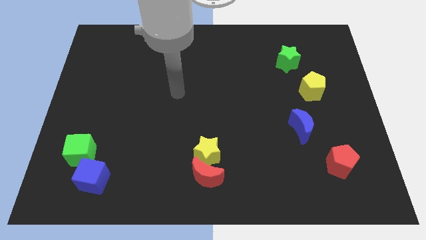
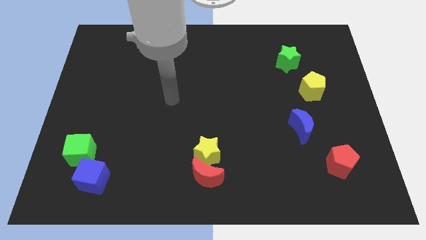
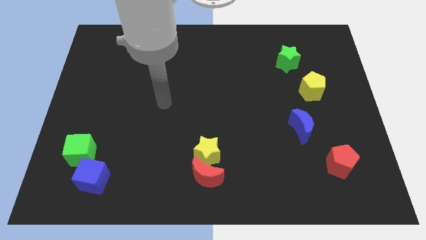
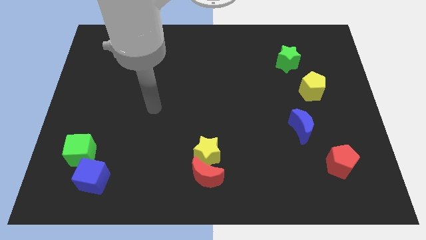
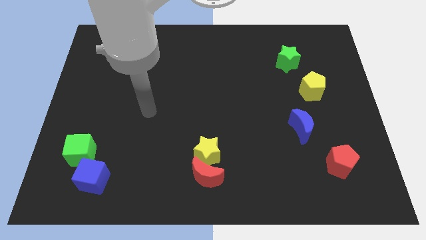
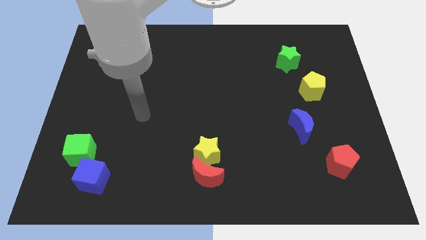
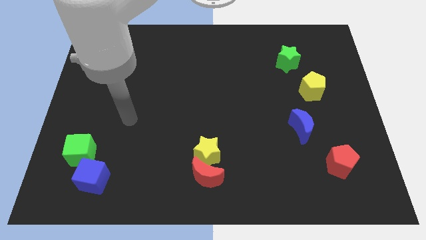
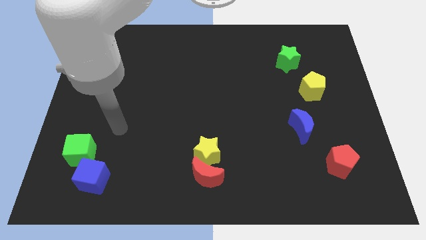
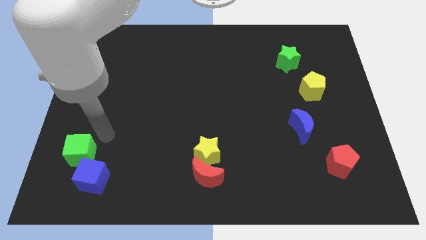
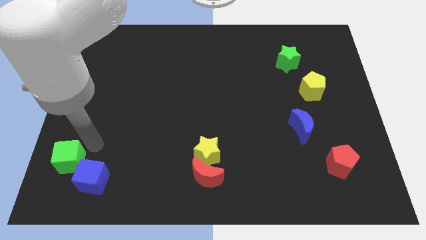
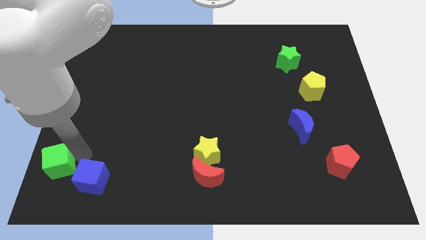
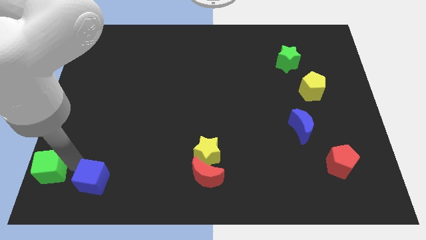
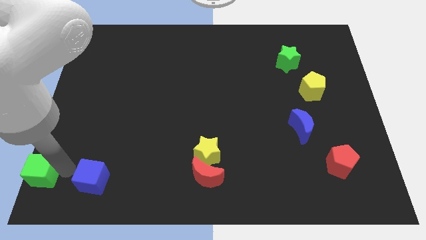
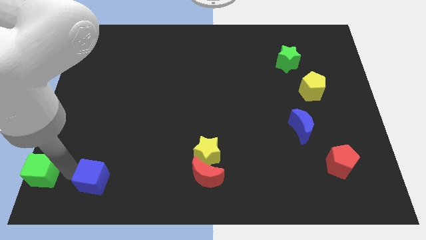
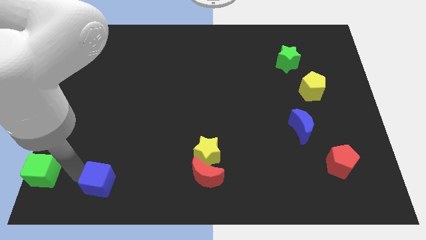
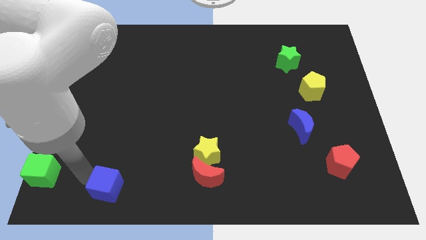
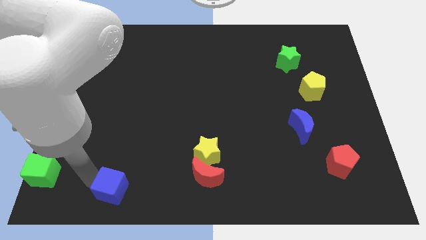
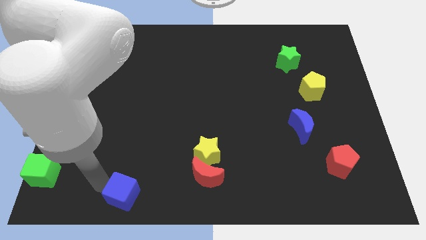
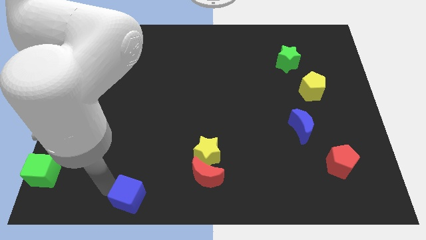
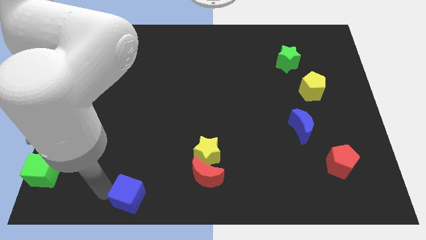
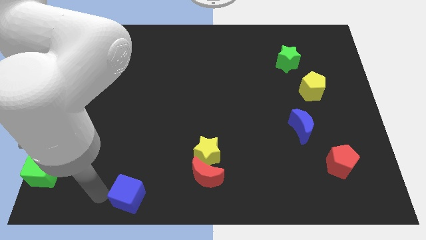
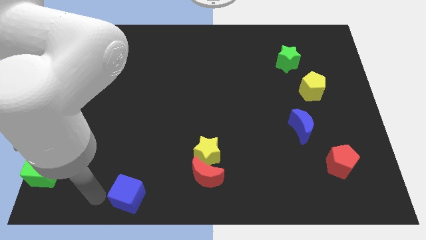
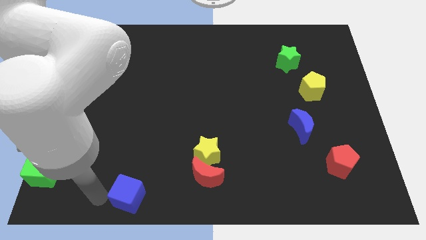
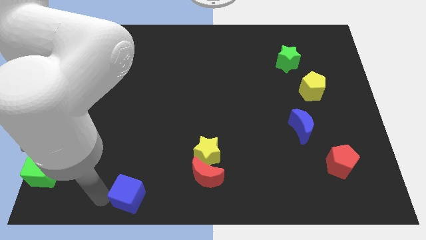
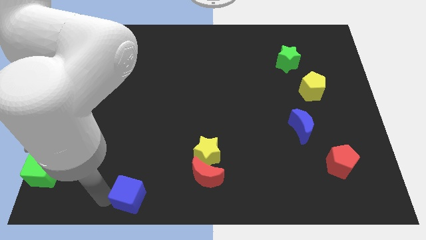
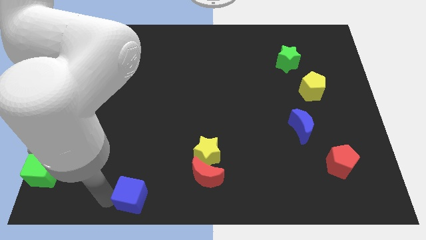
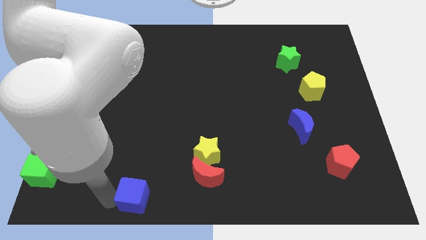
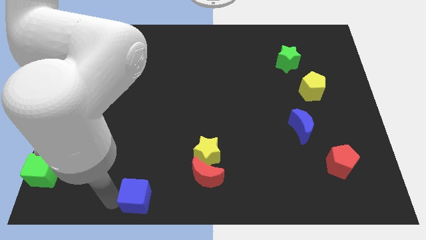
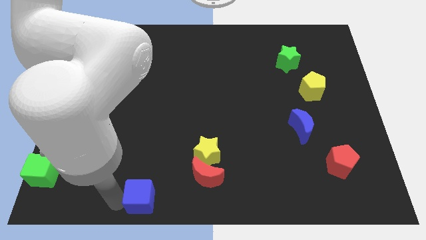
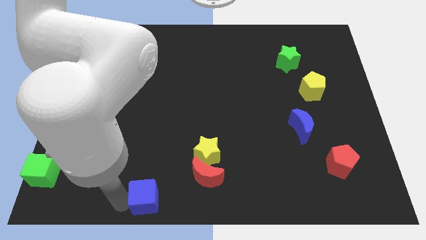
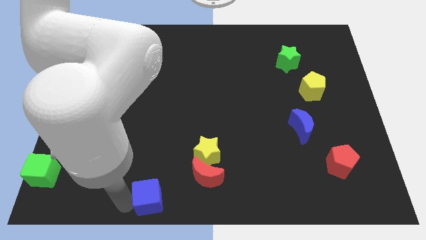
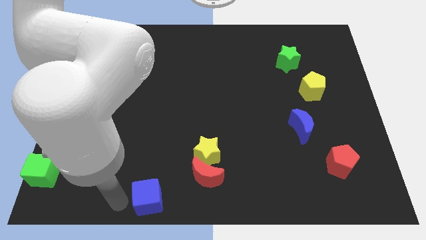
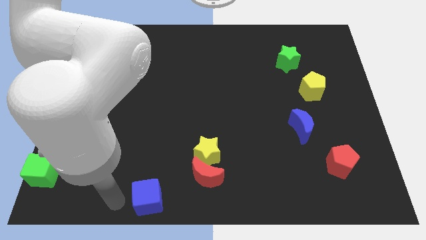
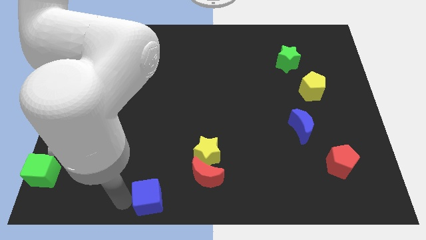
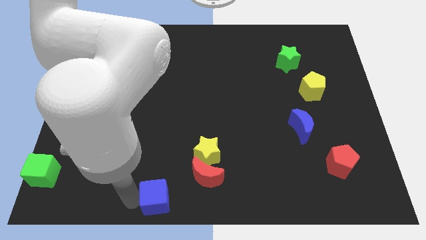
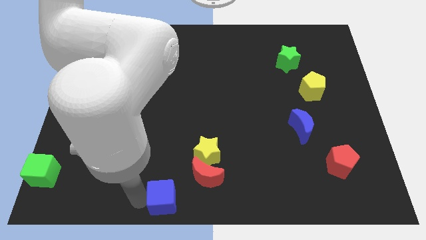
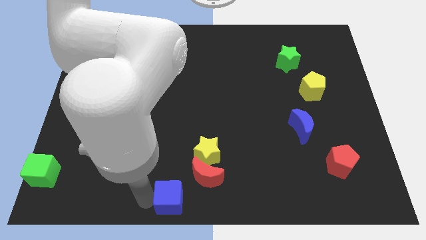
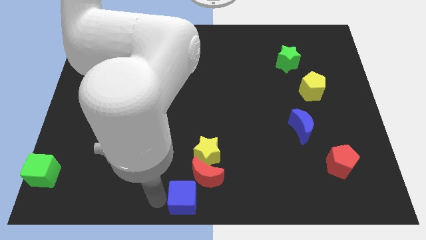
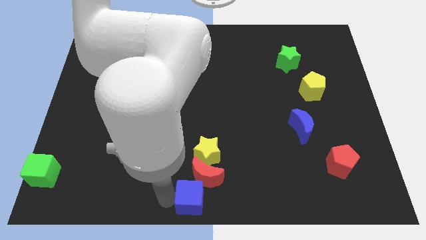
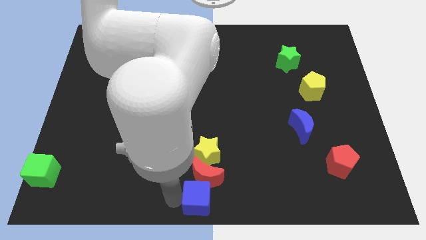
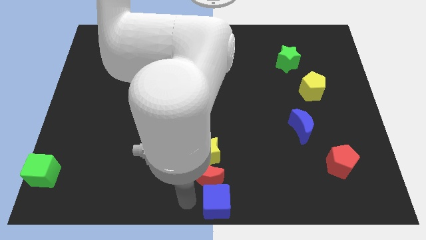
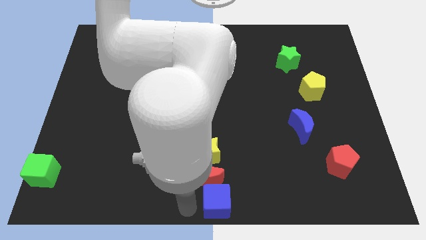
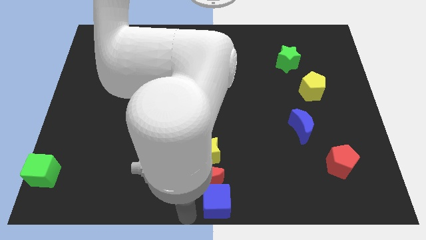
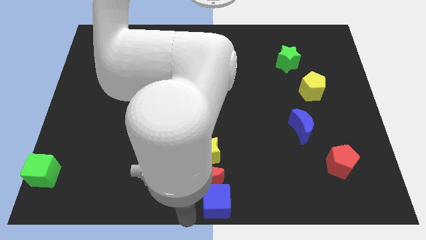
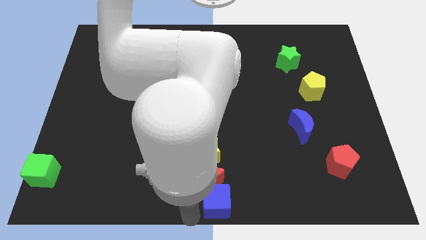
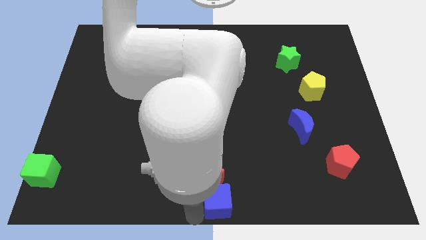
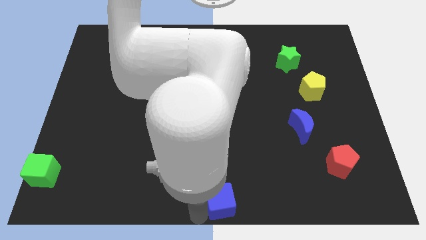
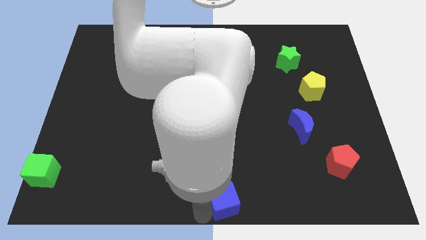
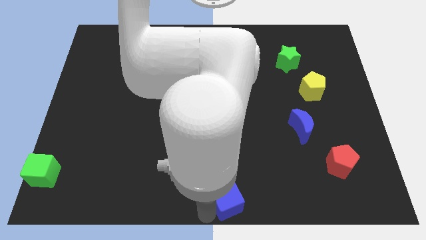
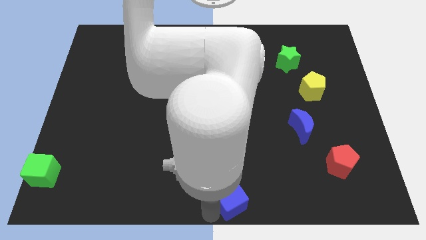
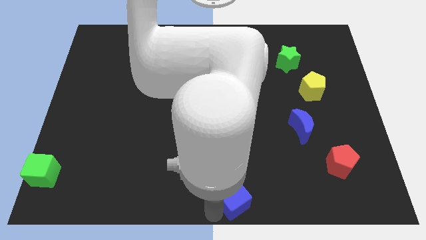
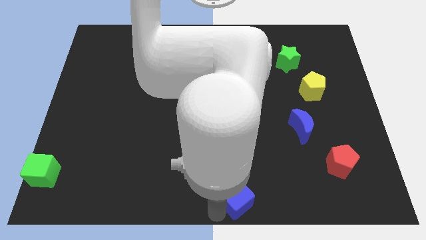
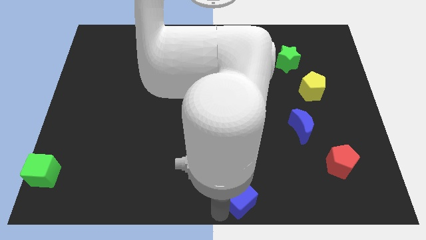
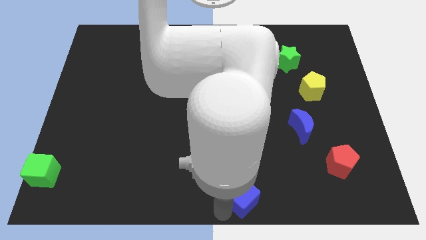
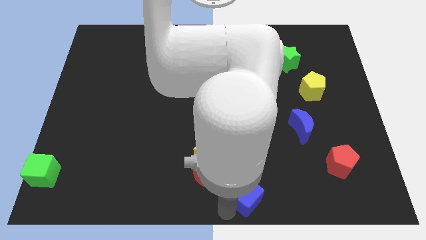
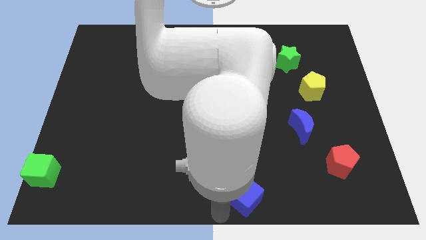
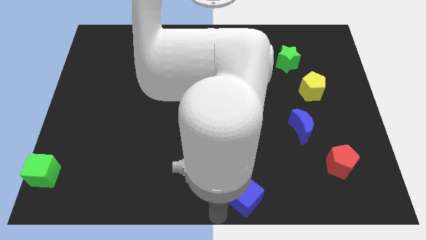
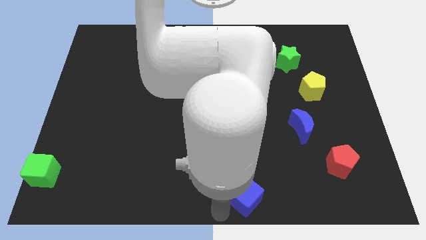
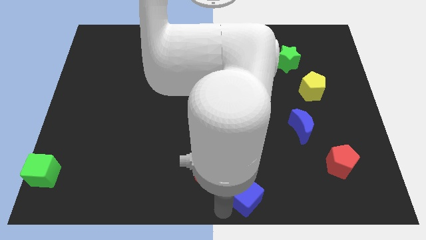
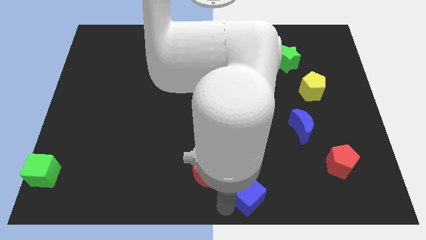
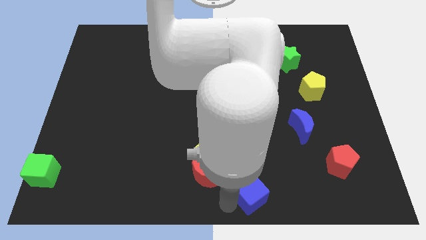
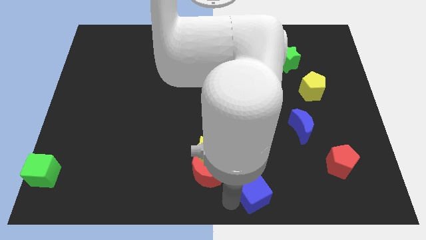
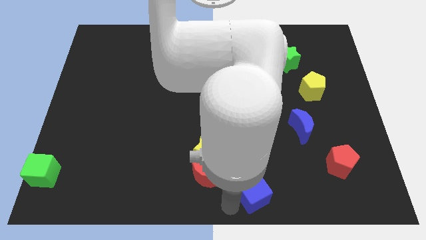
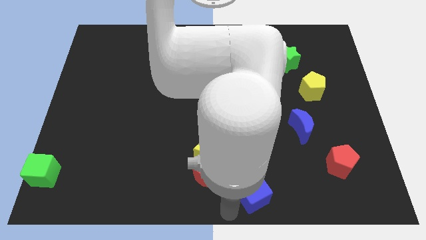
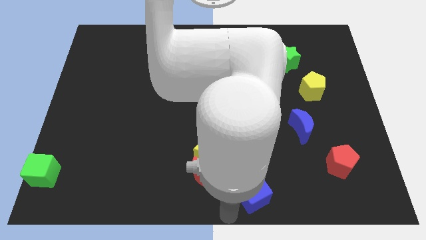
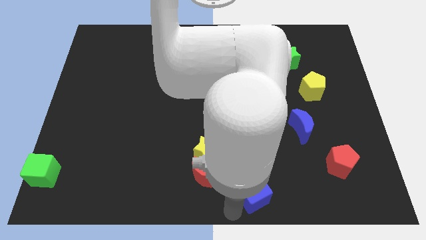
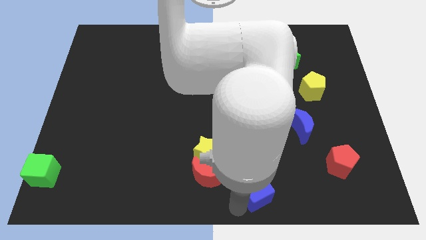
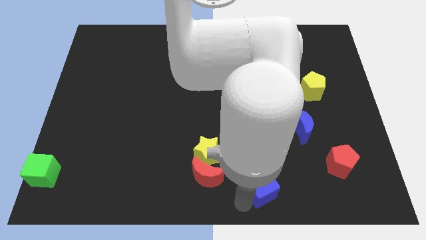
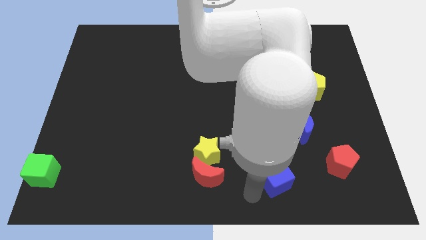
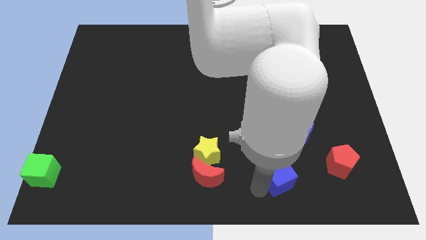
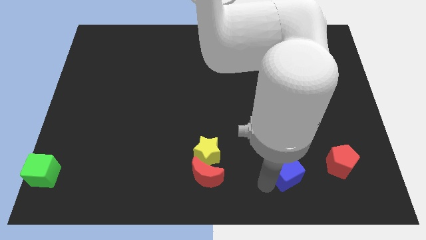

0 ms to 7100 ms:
move the blue cube to the bottom side of the blue moon
